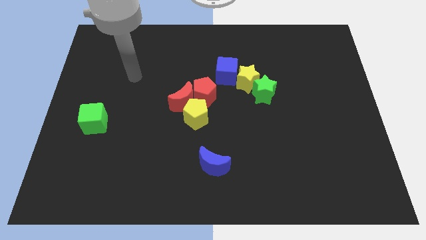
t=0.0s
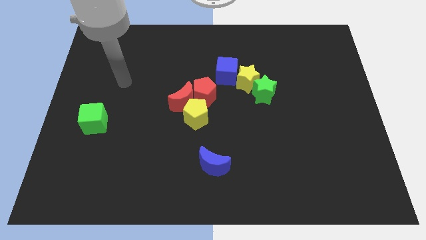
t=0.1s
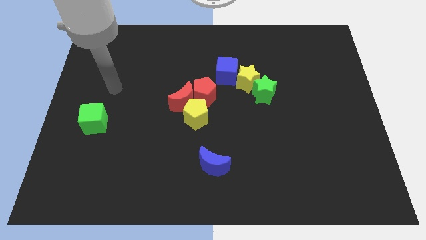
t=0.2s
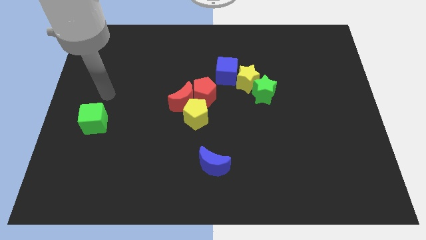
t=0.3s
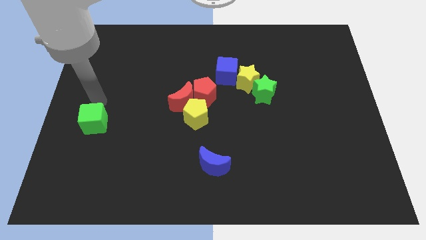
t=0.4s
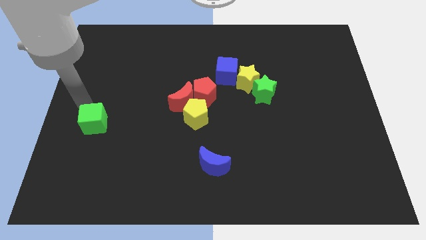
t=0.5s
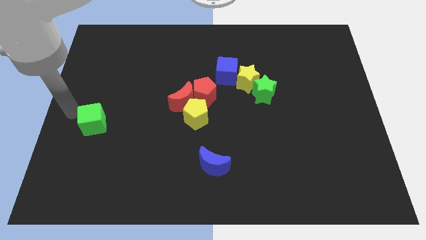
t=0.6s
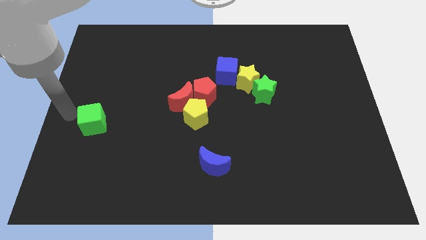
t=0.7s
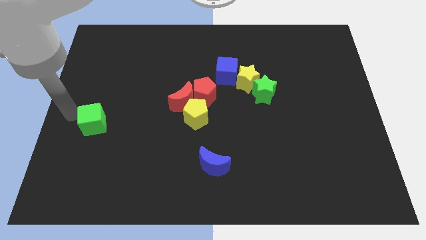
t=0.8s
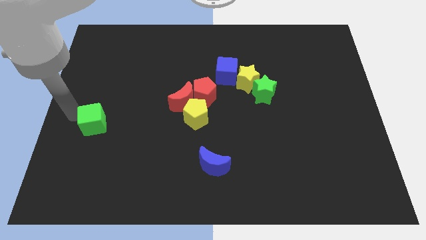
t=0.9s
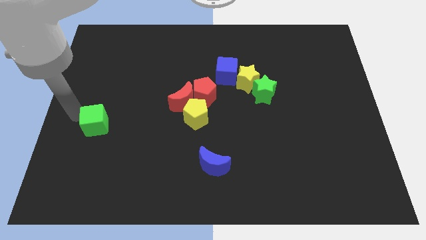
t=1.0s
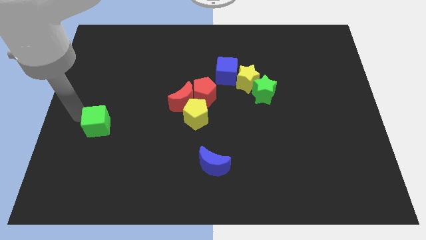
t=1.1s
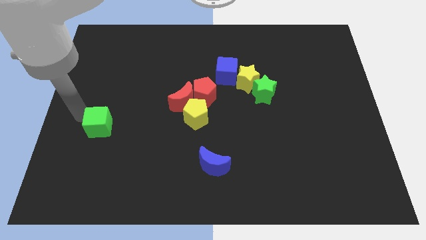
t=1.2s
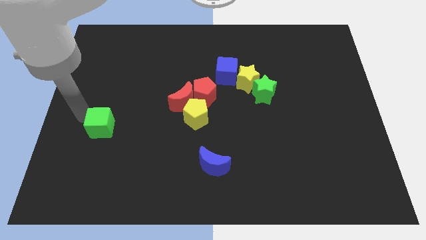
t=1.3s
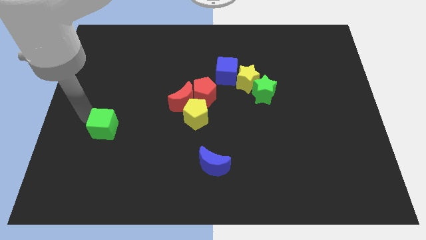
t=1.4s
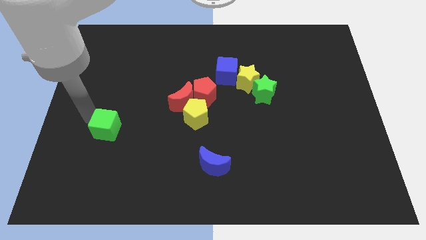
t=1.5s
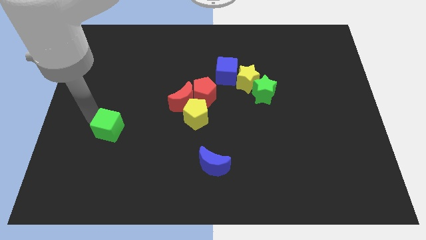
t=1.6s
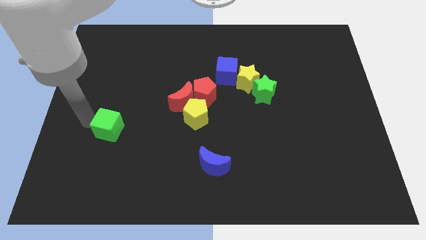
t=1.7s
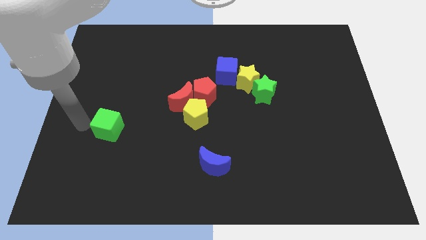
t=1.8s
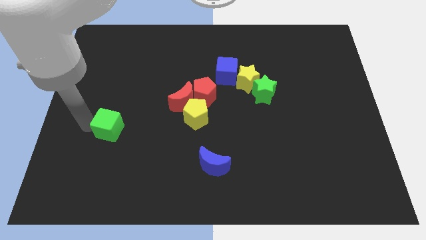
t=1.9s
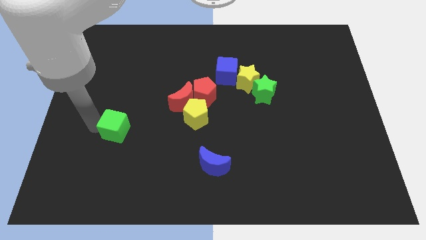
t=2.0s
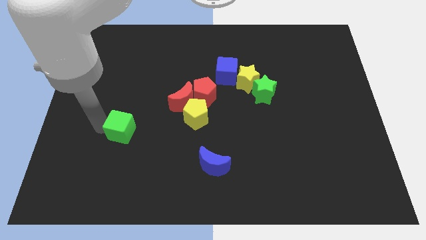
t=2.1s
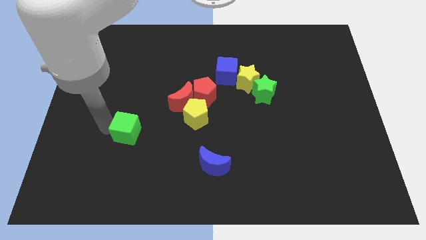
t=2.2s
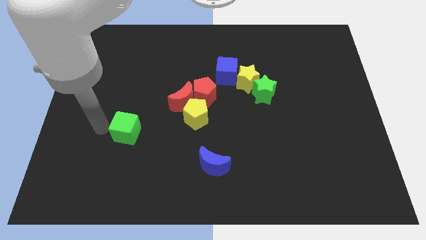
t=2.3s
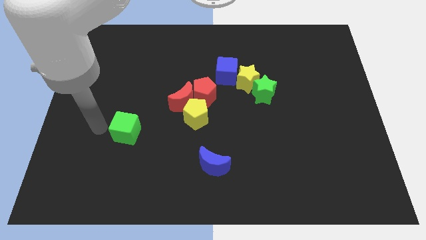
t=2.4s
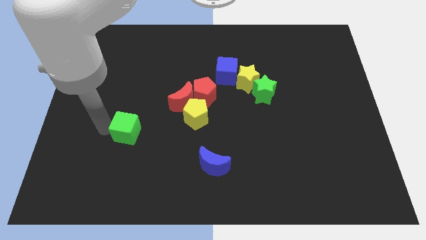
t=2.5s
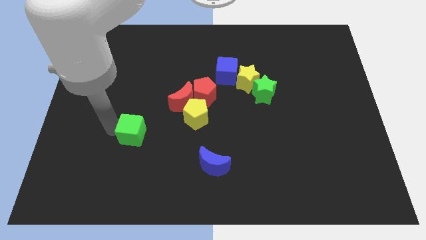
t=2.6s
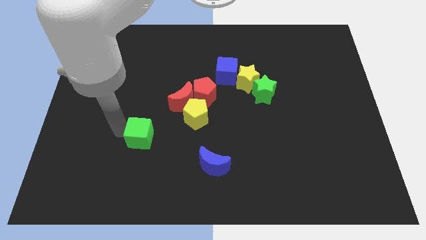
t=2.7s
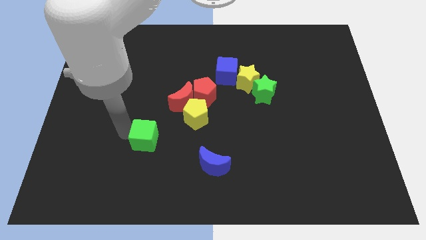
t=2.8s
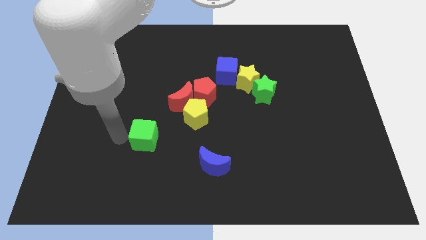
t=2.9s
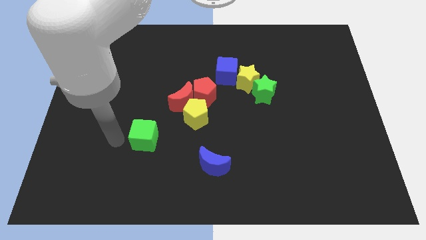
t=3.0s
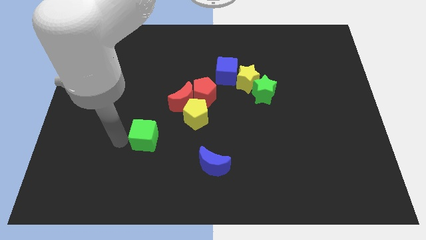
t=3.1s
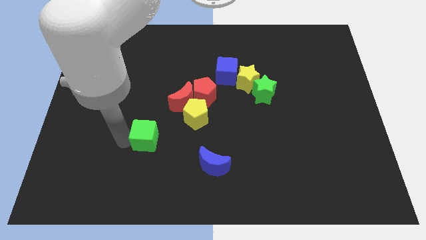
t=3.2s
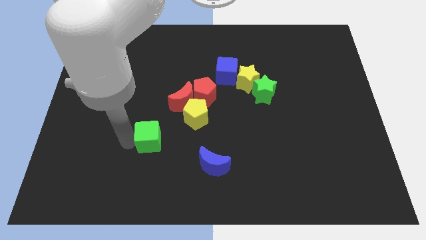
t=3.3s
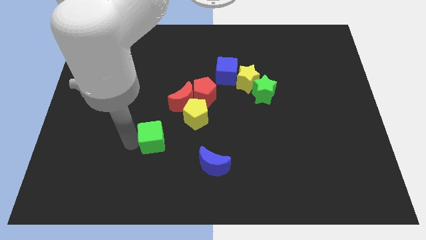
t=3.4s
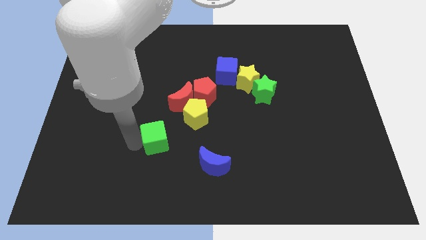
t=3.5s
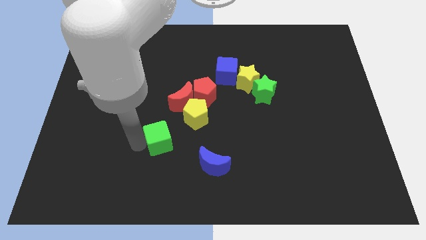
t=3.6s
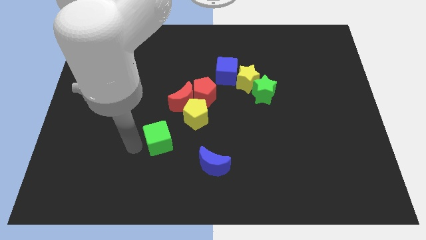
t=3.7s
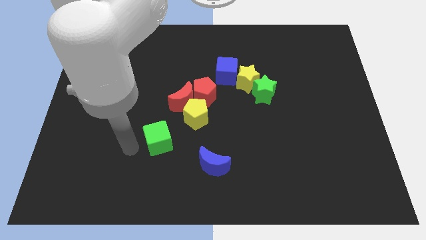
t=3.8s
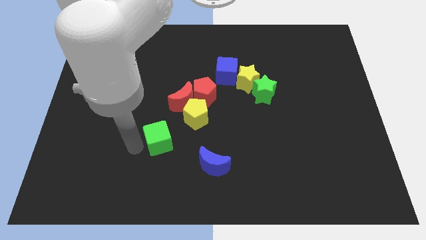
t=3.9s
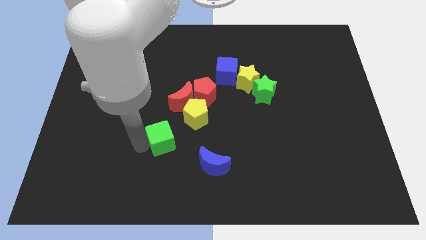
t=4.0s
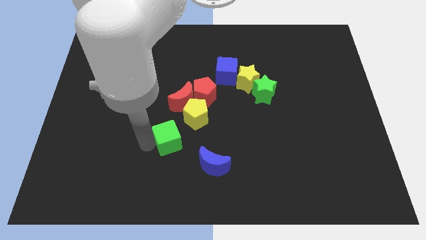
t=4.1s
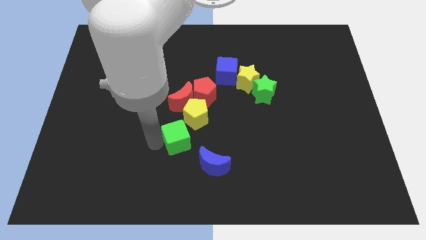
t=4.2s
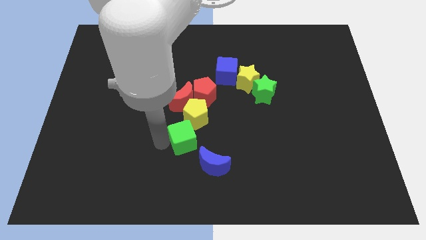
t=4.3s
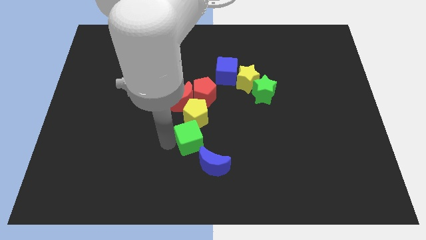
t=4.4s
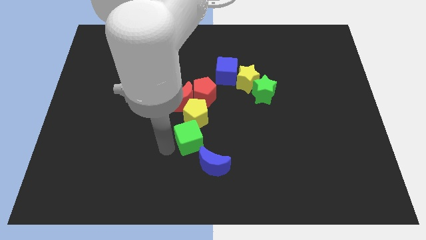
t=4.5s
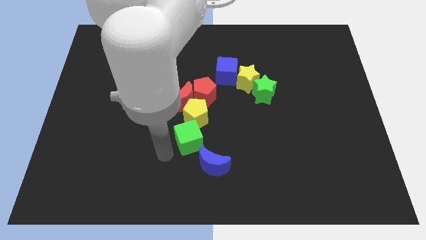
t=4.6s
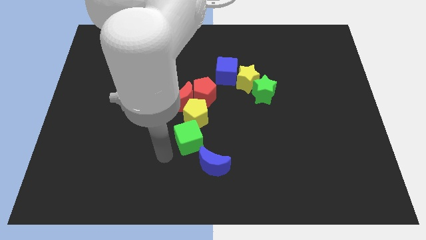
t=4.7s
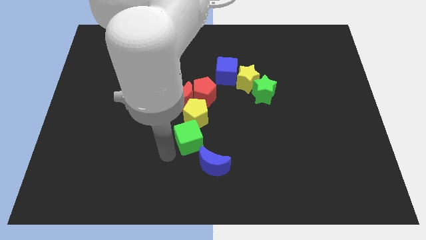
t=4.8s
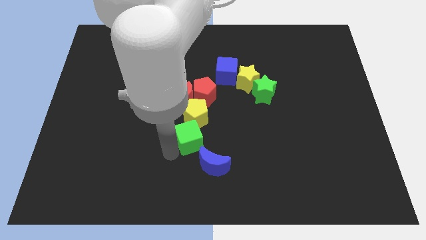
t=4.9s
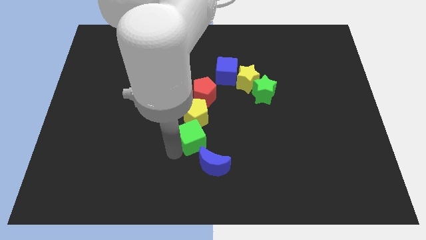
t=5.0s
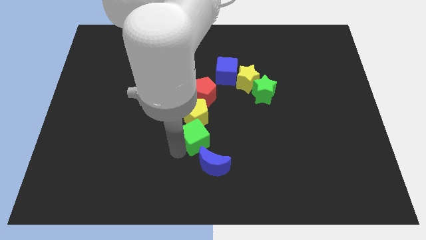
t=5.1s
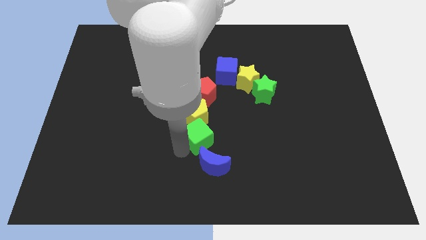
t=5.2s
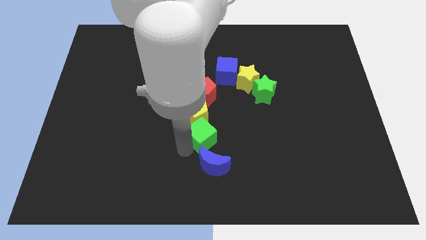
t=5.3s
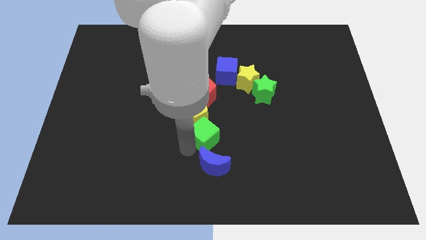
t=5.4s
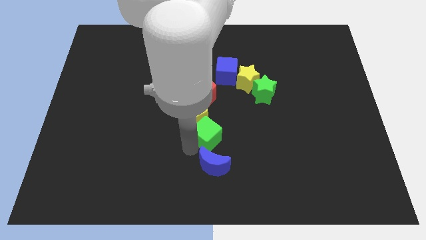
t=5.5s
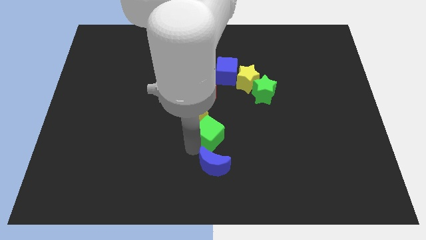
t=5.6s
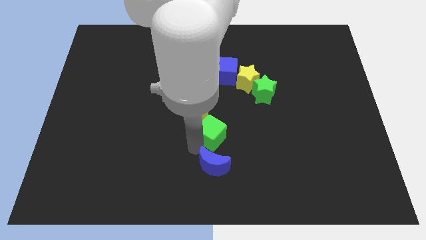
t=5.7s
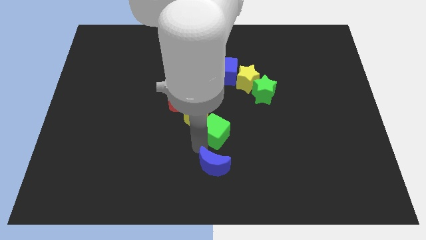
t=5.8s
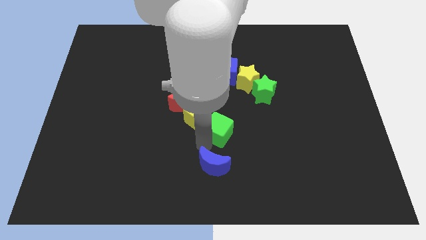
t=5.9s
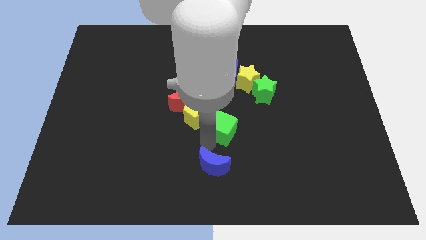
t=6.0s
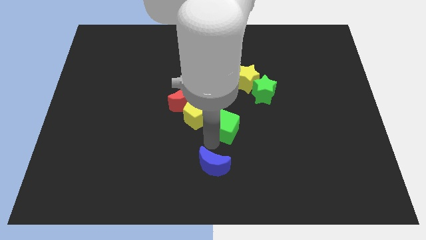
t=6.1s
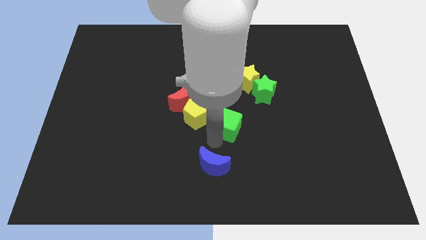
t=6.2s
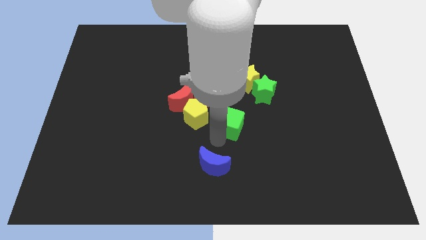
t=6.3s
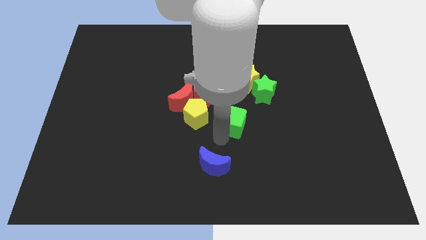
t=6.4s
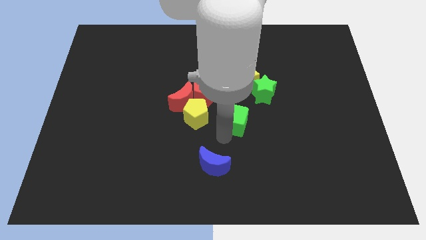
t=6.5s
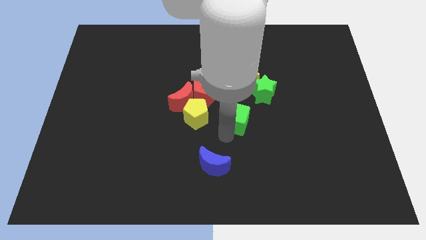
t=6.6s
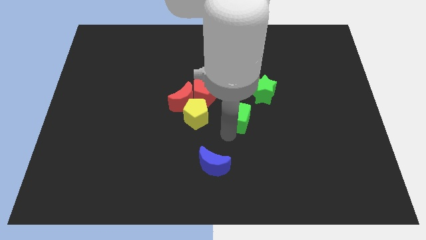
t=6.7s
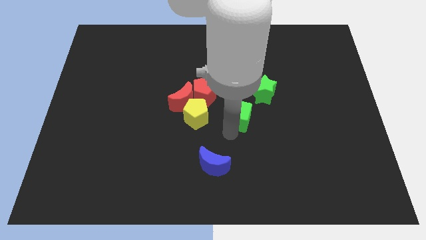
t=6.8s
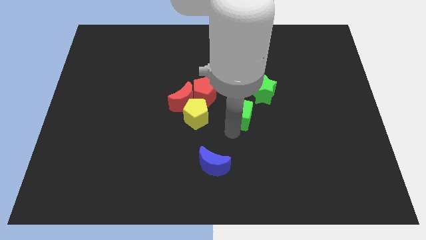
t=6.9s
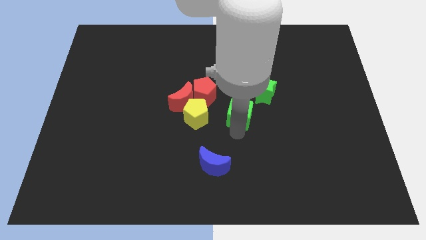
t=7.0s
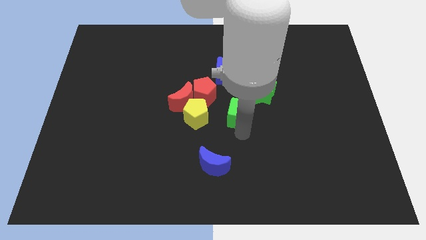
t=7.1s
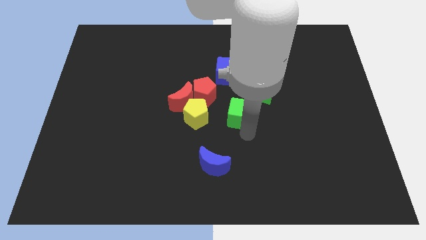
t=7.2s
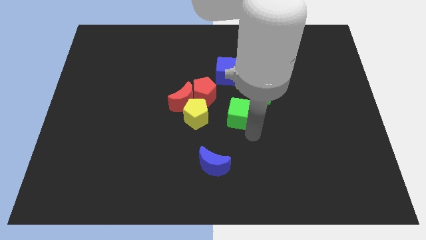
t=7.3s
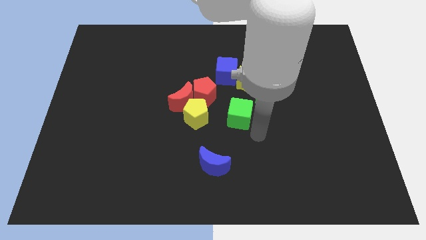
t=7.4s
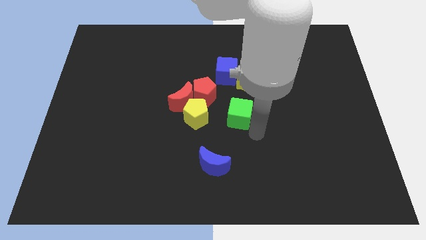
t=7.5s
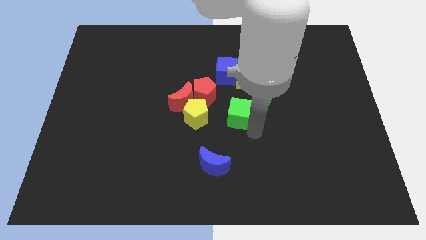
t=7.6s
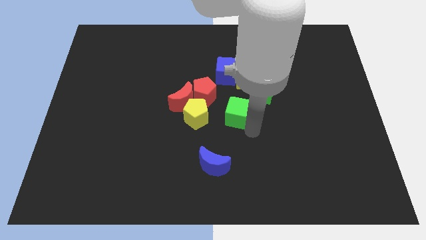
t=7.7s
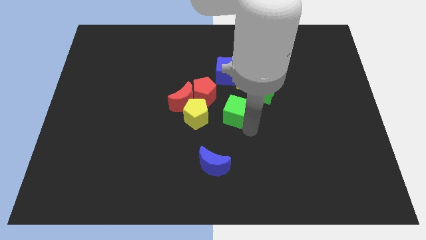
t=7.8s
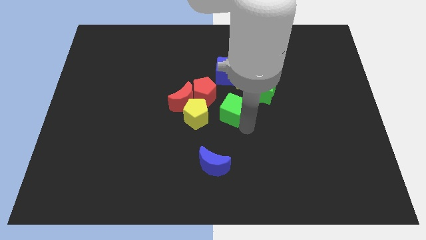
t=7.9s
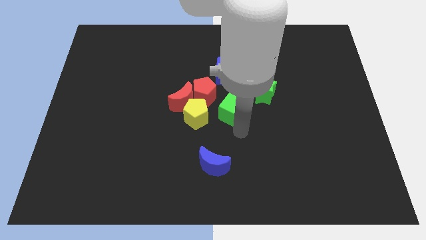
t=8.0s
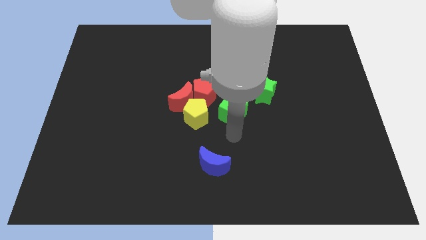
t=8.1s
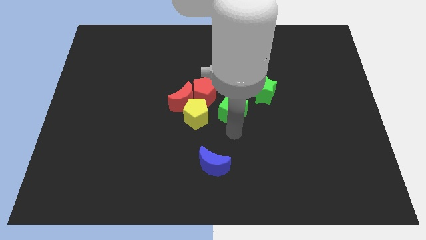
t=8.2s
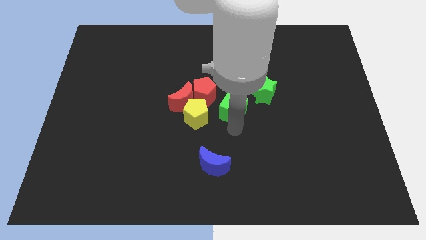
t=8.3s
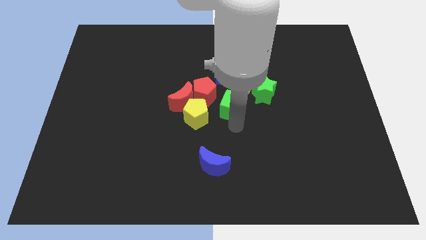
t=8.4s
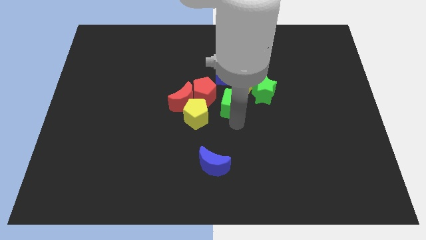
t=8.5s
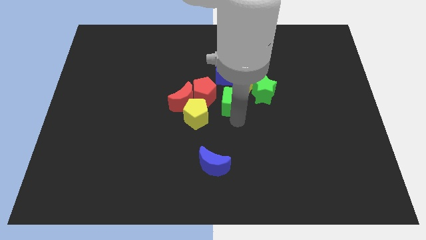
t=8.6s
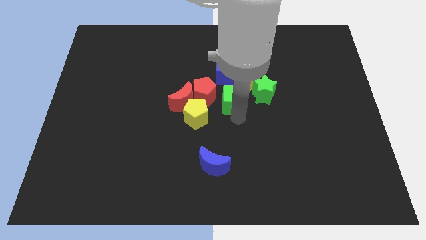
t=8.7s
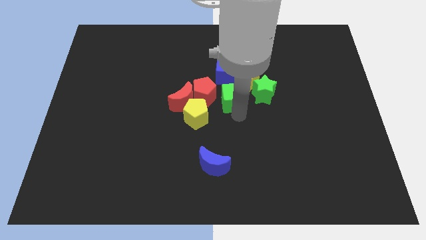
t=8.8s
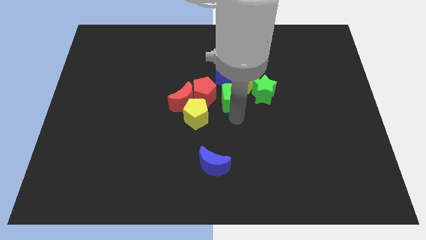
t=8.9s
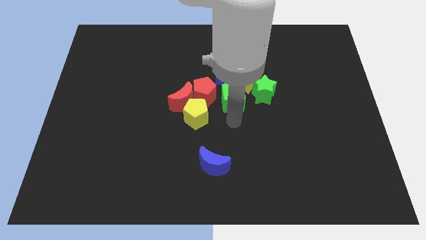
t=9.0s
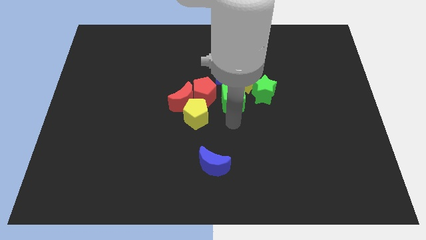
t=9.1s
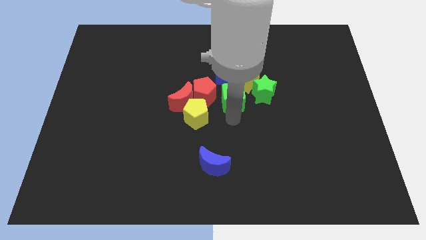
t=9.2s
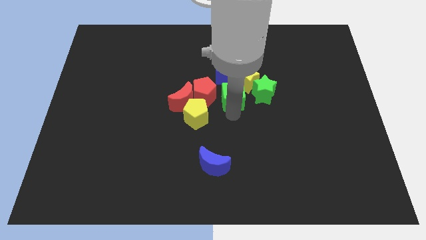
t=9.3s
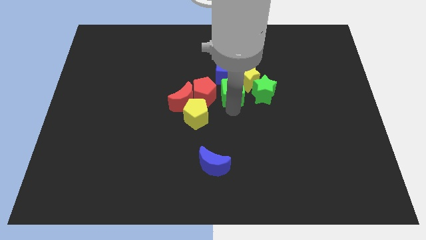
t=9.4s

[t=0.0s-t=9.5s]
slide the green cube towards the yellow star
